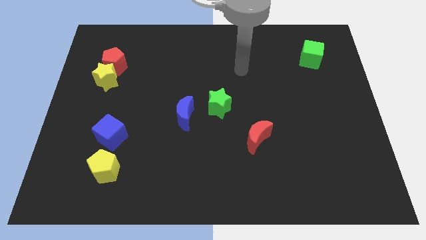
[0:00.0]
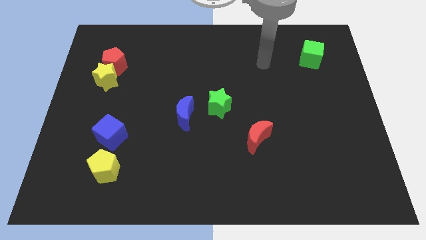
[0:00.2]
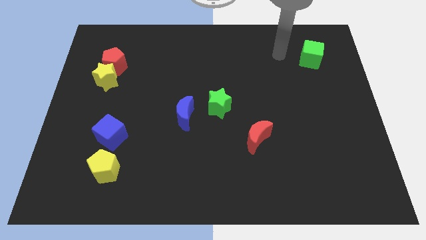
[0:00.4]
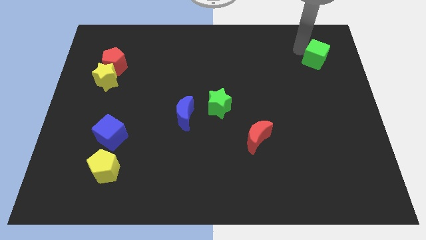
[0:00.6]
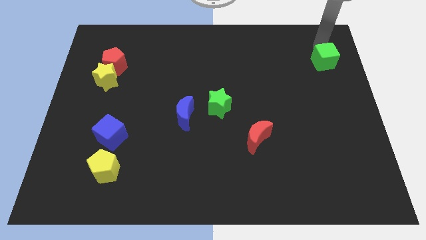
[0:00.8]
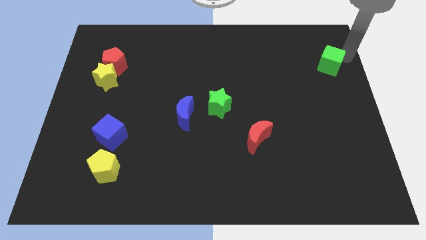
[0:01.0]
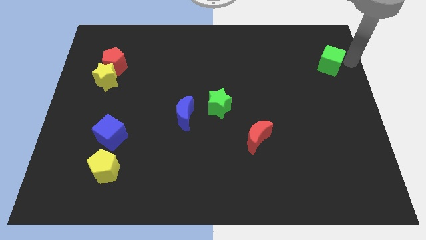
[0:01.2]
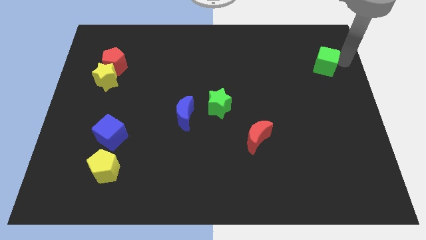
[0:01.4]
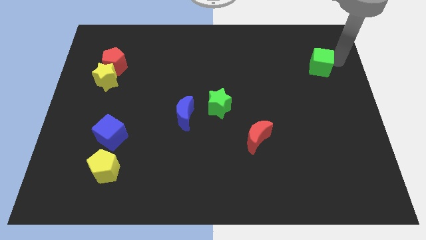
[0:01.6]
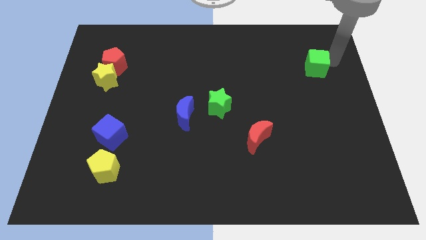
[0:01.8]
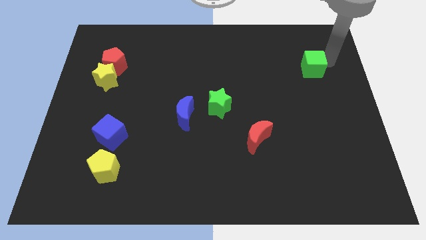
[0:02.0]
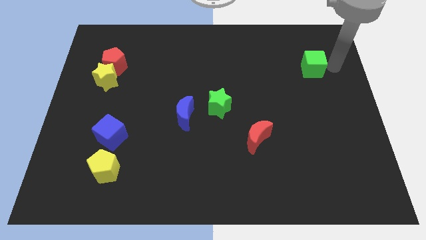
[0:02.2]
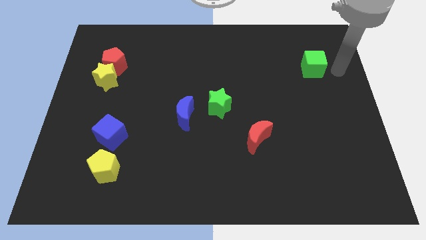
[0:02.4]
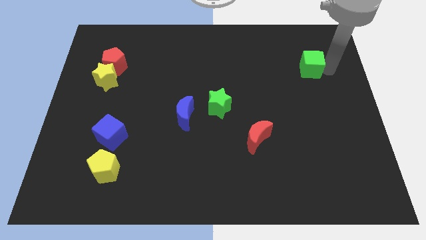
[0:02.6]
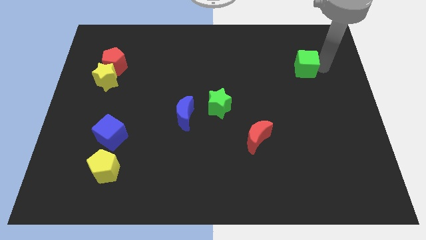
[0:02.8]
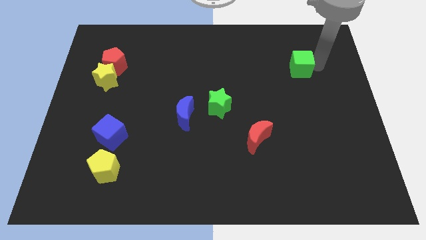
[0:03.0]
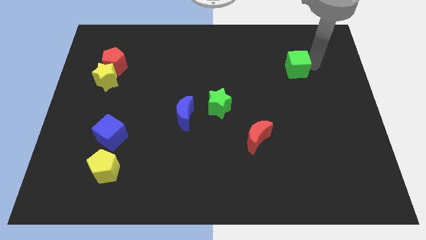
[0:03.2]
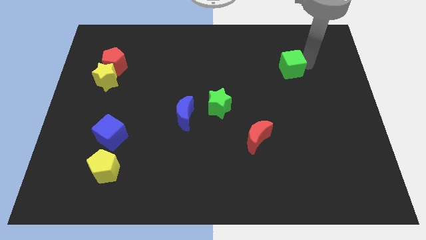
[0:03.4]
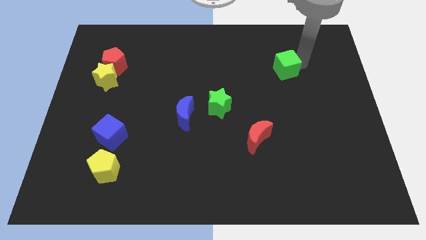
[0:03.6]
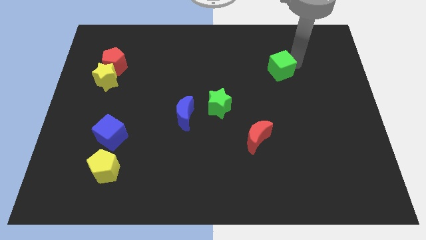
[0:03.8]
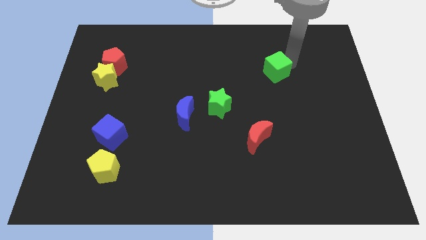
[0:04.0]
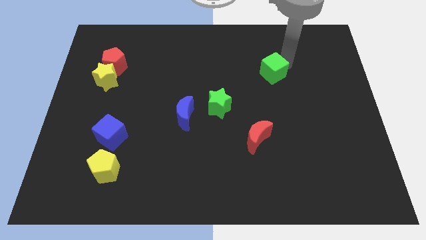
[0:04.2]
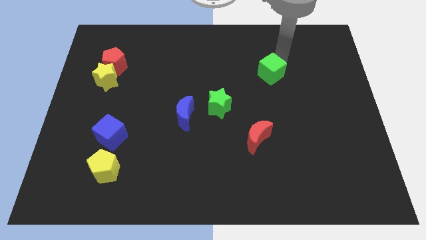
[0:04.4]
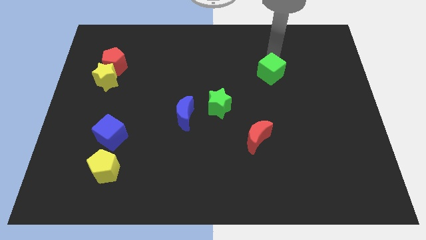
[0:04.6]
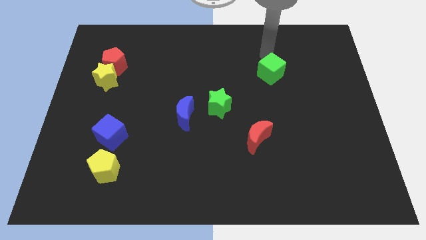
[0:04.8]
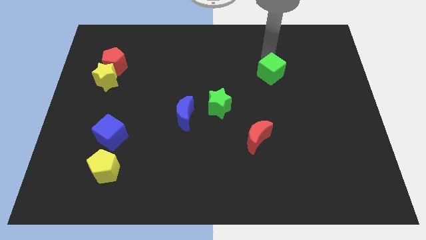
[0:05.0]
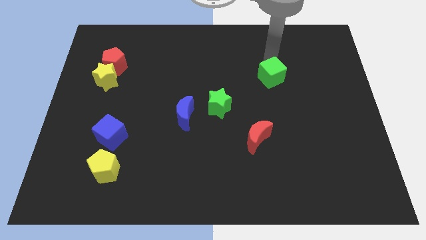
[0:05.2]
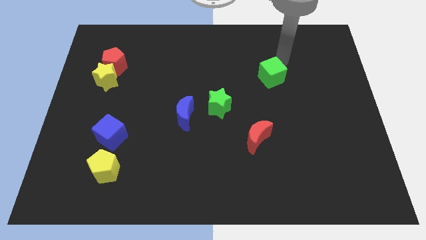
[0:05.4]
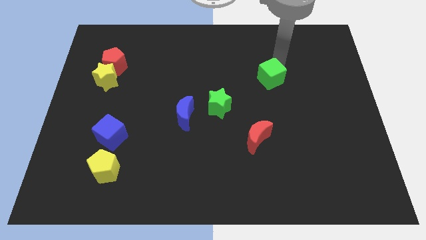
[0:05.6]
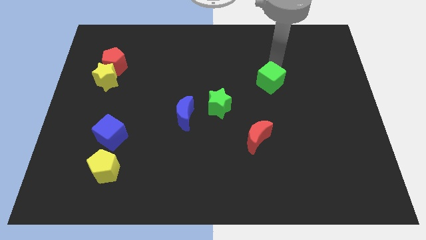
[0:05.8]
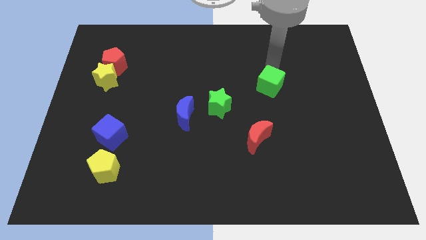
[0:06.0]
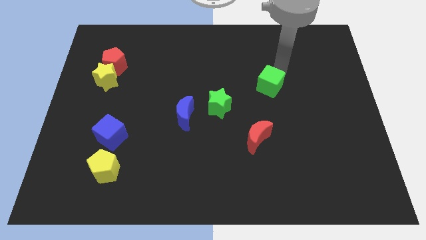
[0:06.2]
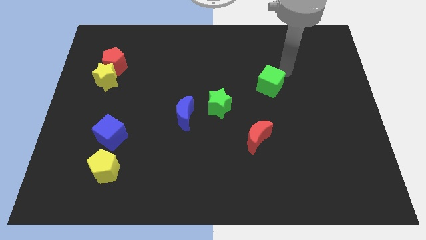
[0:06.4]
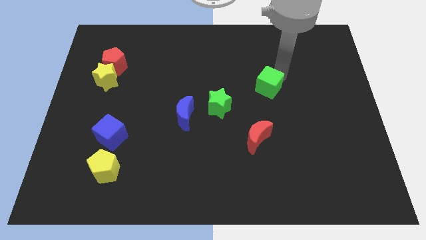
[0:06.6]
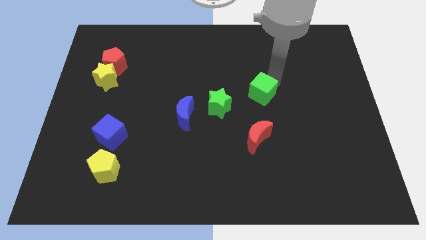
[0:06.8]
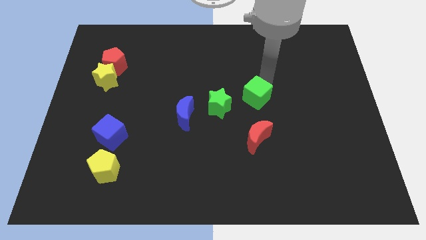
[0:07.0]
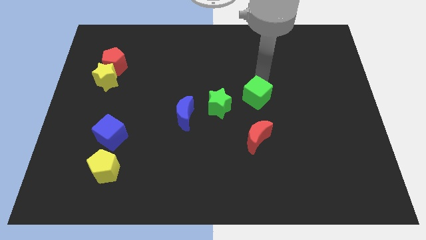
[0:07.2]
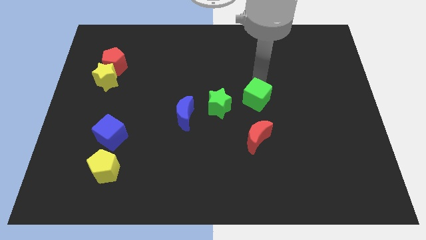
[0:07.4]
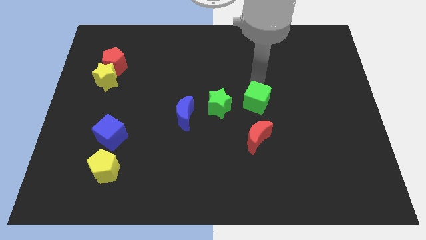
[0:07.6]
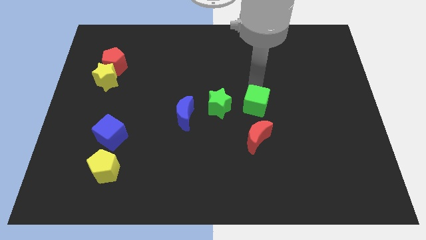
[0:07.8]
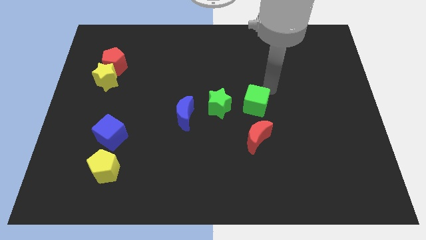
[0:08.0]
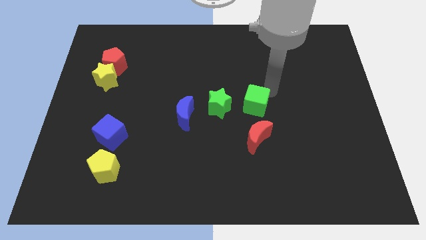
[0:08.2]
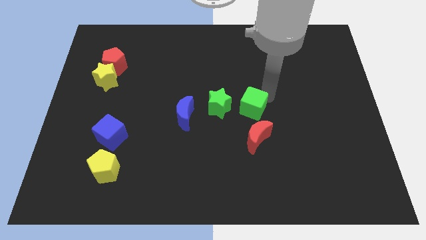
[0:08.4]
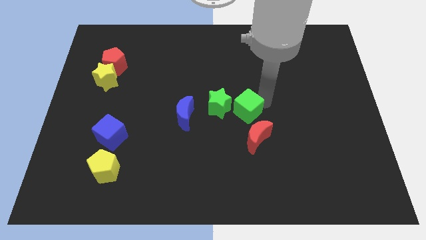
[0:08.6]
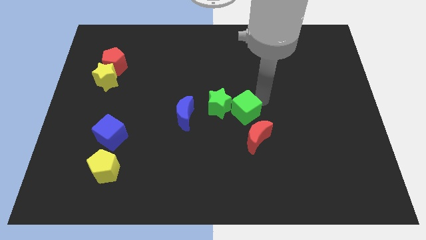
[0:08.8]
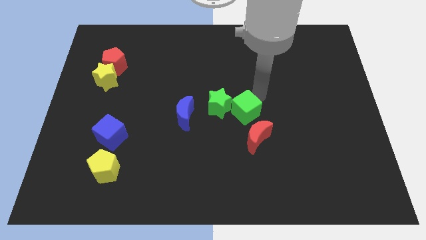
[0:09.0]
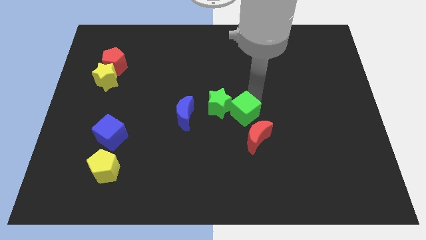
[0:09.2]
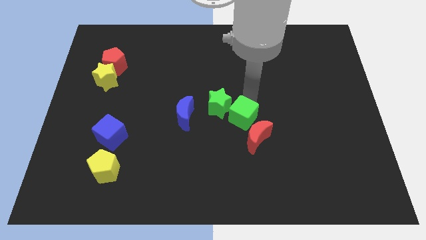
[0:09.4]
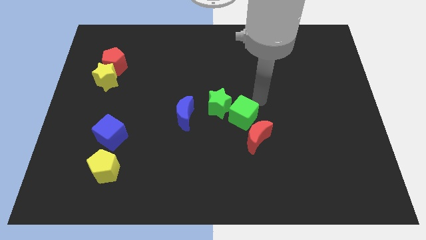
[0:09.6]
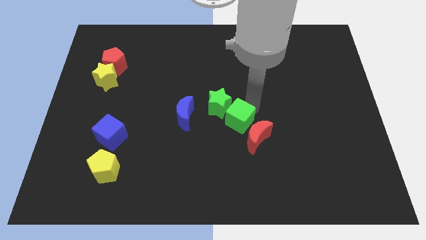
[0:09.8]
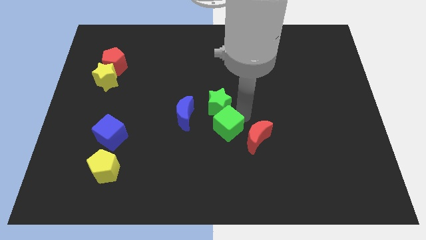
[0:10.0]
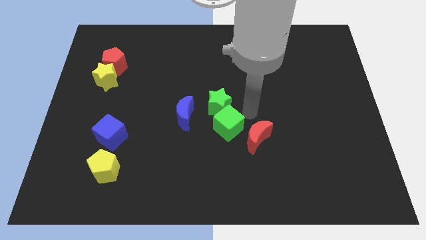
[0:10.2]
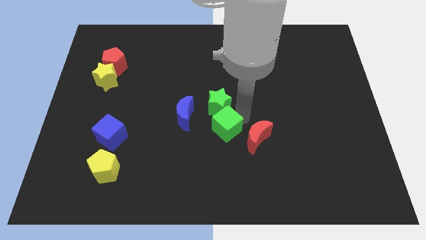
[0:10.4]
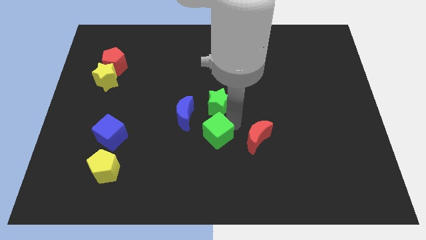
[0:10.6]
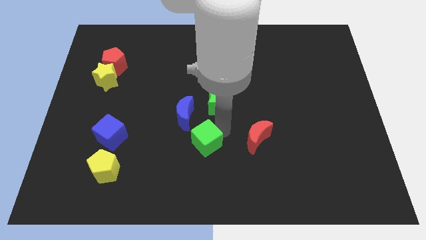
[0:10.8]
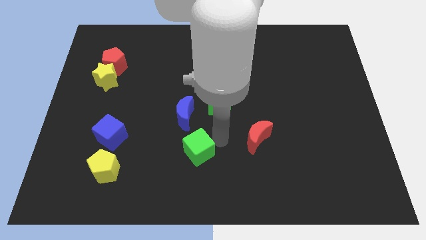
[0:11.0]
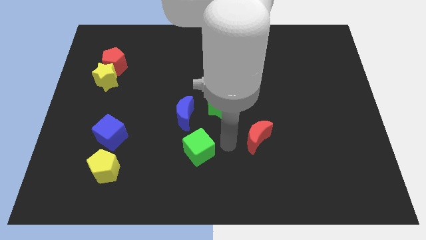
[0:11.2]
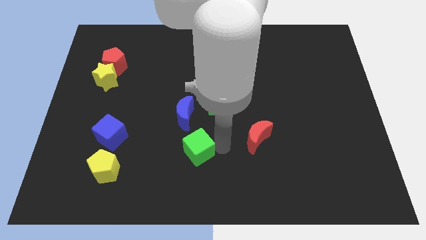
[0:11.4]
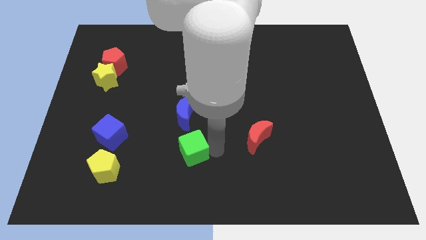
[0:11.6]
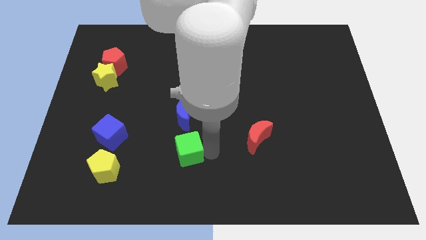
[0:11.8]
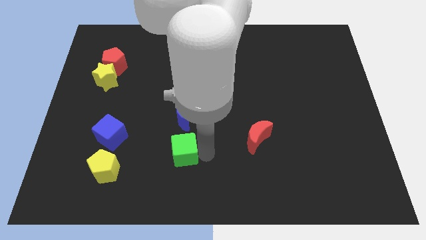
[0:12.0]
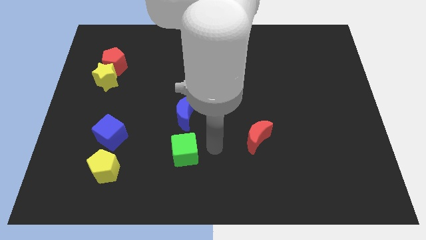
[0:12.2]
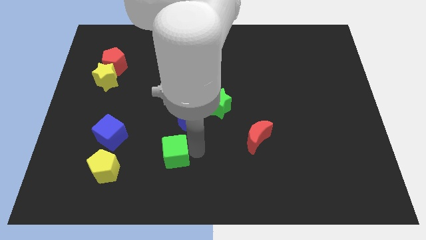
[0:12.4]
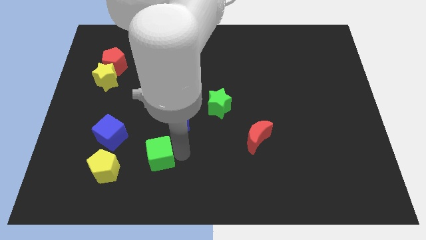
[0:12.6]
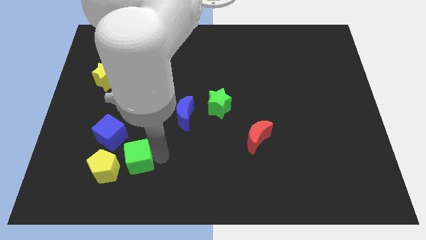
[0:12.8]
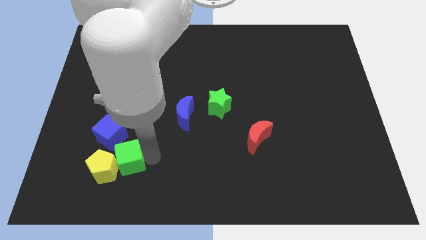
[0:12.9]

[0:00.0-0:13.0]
push the green cube towards the yellow pentagon

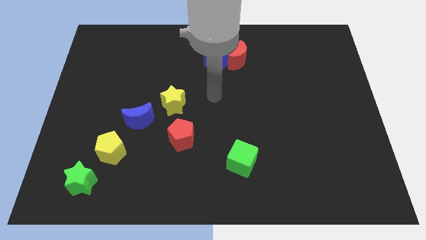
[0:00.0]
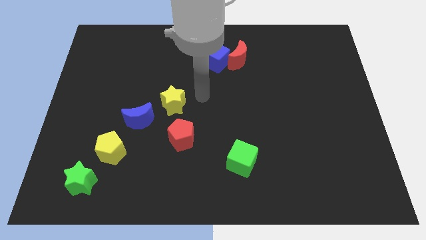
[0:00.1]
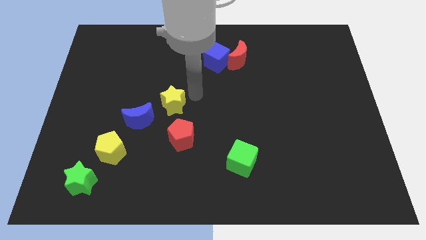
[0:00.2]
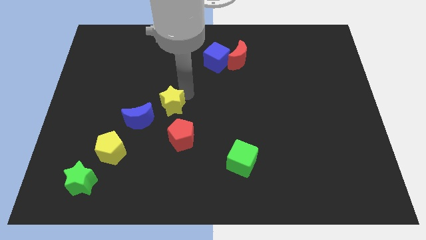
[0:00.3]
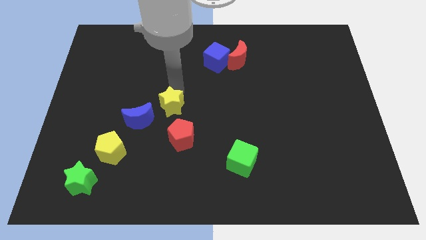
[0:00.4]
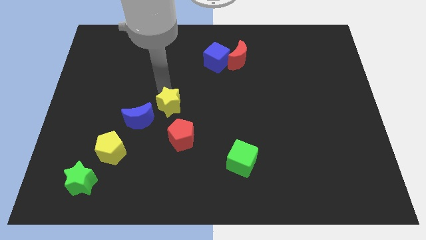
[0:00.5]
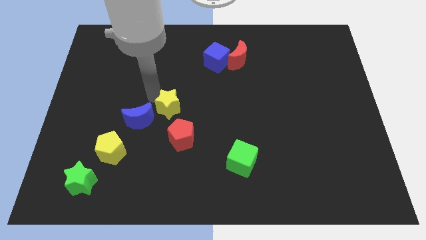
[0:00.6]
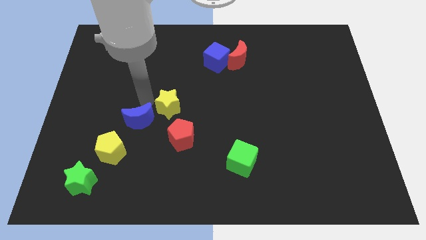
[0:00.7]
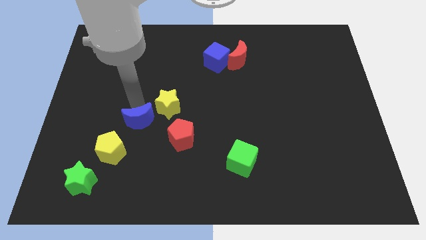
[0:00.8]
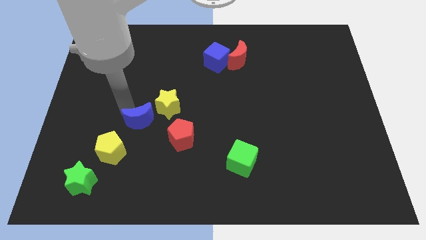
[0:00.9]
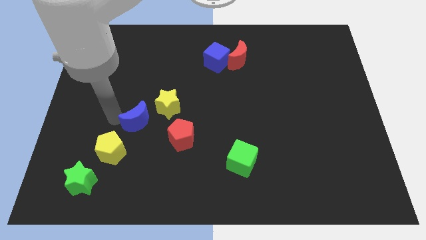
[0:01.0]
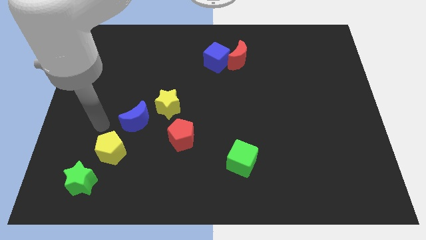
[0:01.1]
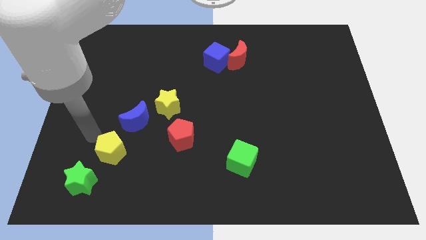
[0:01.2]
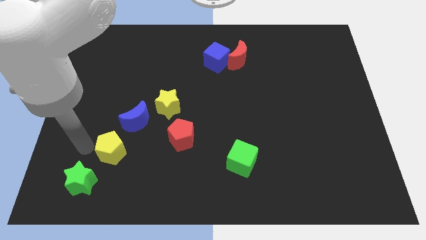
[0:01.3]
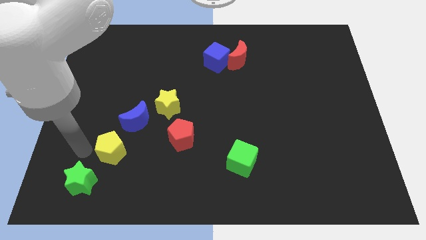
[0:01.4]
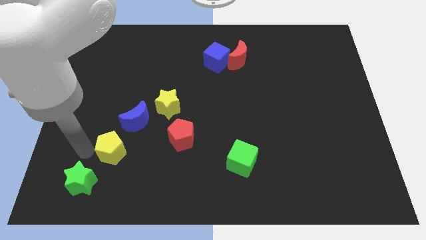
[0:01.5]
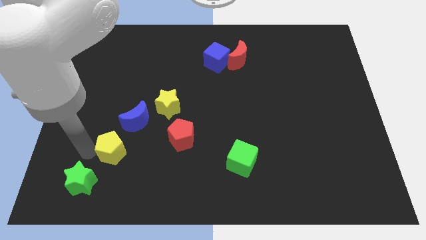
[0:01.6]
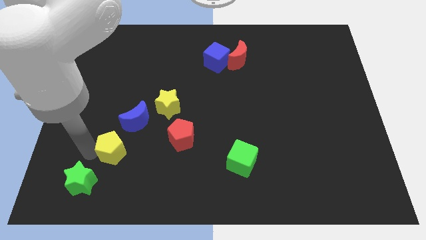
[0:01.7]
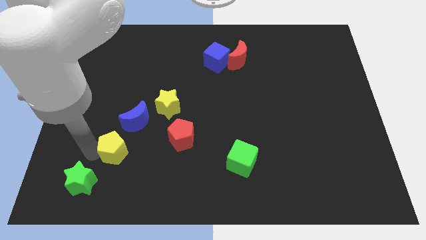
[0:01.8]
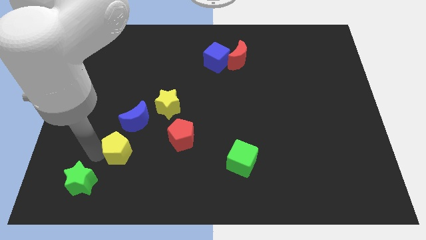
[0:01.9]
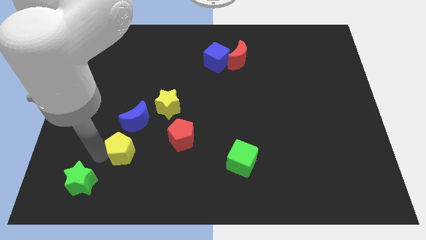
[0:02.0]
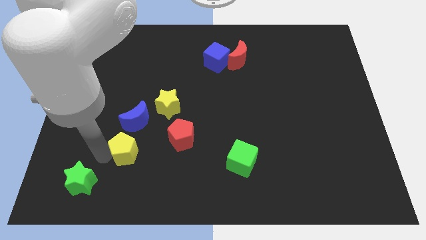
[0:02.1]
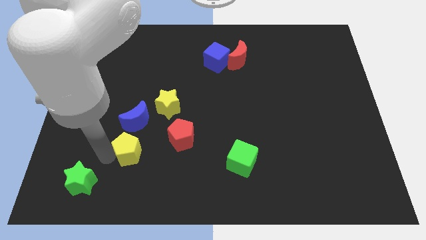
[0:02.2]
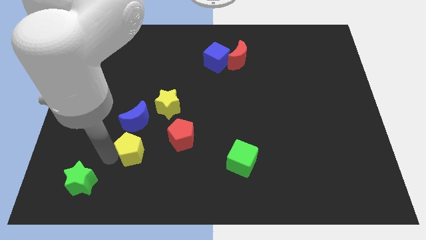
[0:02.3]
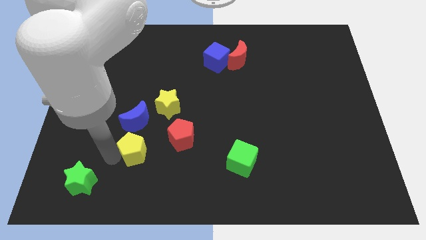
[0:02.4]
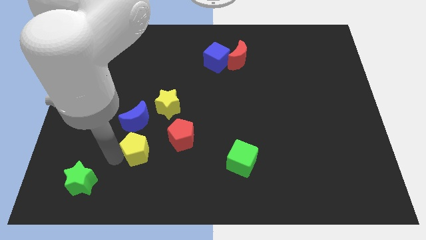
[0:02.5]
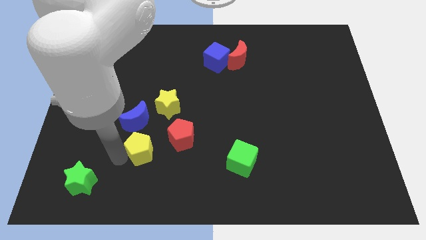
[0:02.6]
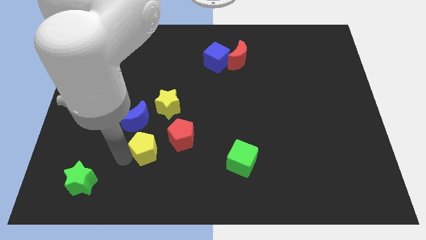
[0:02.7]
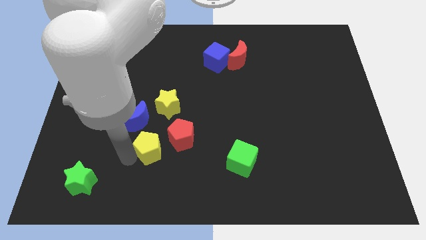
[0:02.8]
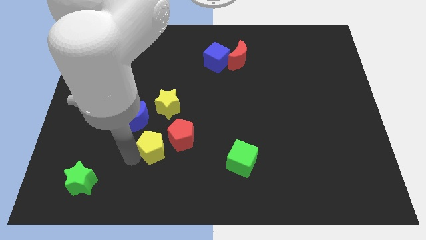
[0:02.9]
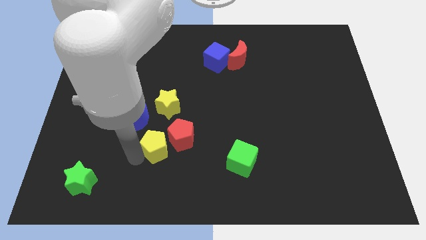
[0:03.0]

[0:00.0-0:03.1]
slide the yellow pentagon close to the red pentagon
